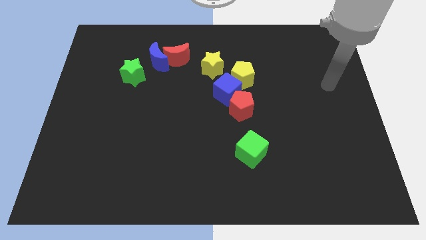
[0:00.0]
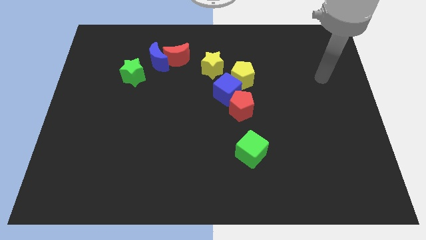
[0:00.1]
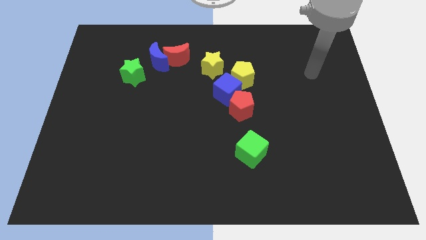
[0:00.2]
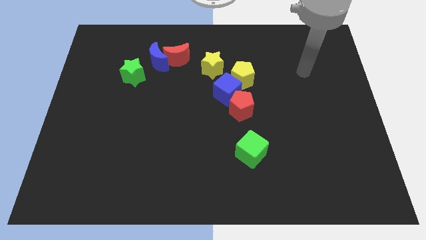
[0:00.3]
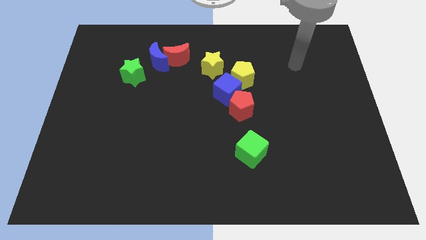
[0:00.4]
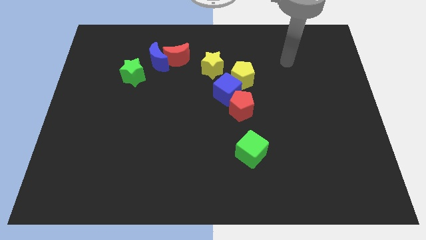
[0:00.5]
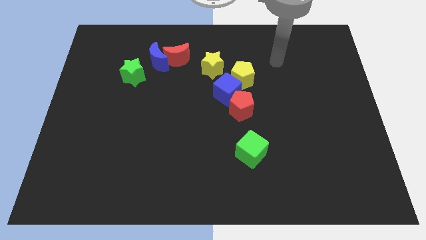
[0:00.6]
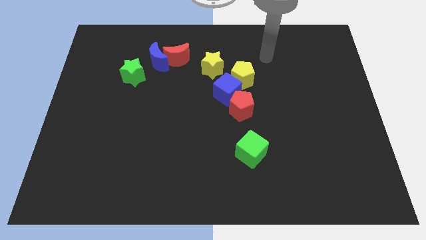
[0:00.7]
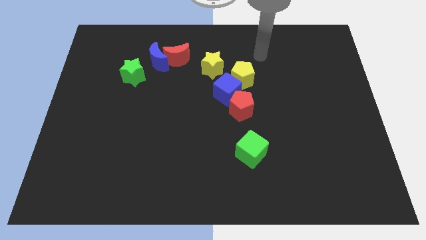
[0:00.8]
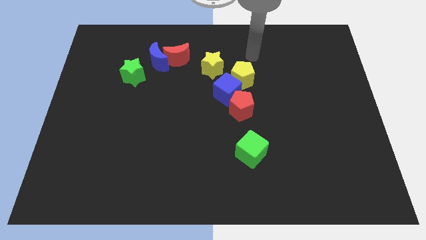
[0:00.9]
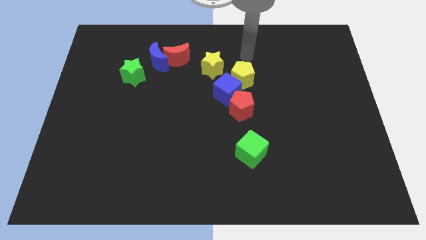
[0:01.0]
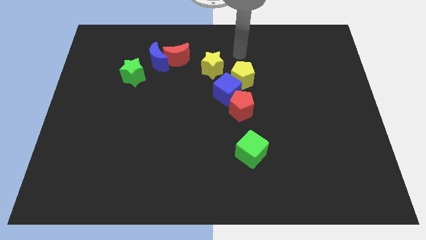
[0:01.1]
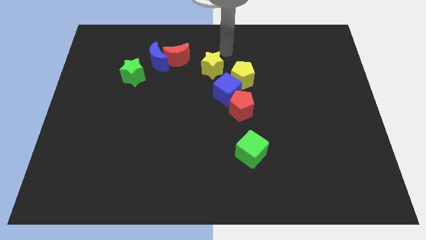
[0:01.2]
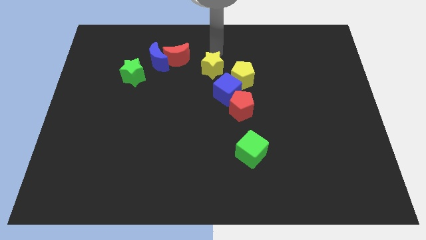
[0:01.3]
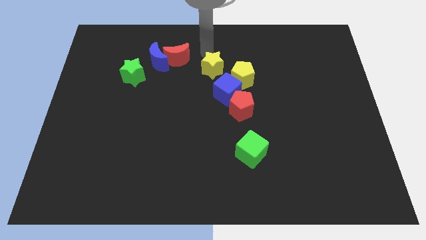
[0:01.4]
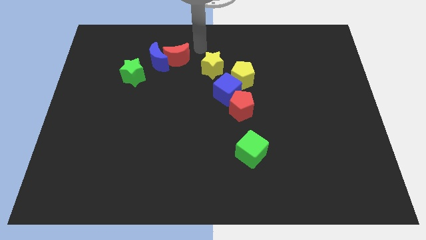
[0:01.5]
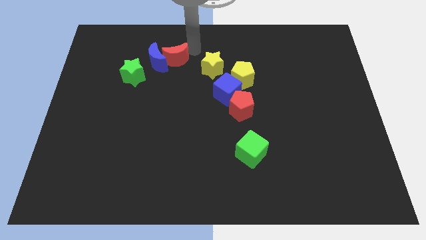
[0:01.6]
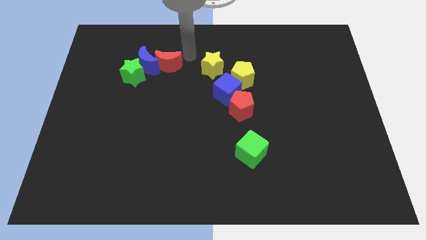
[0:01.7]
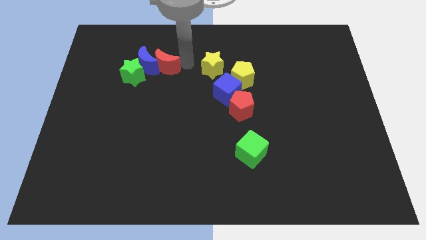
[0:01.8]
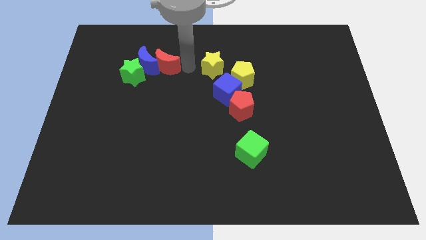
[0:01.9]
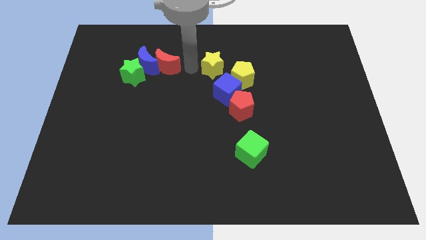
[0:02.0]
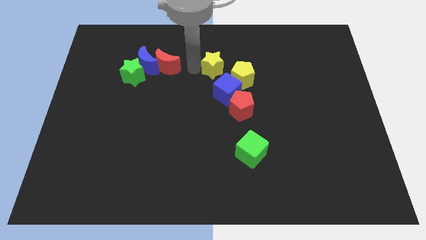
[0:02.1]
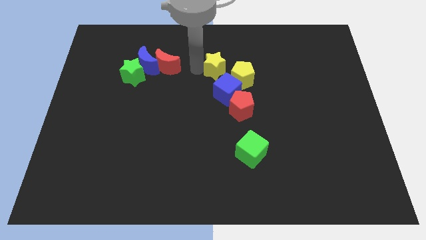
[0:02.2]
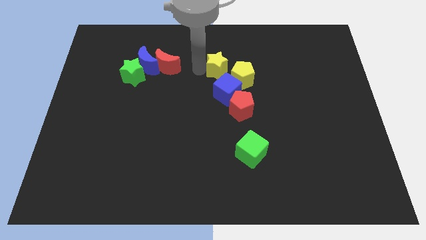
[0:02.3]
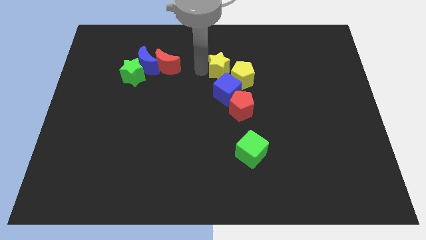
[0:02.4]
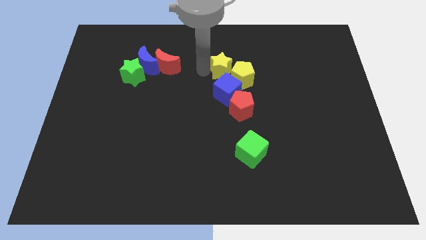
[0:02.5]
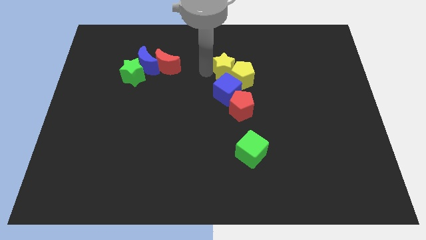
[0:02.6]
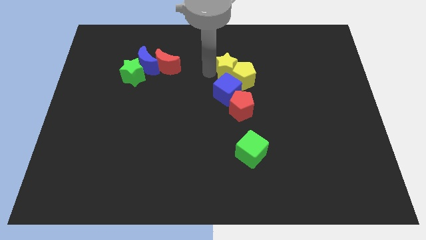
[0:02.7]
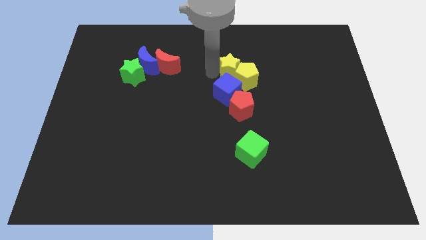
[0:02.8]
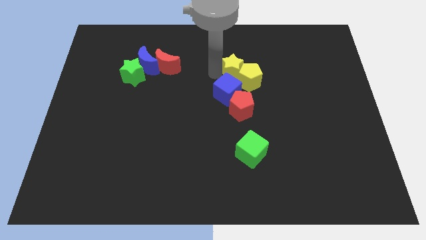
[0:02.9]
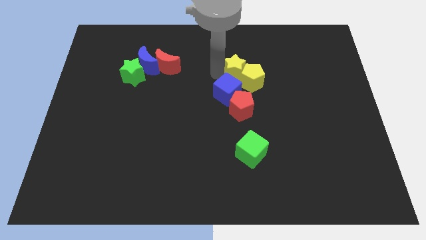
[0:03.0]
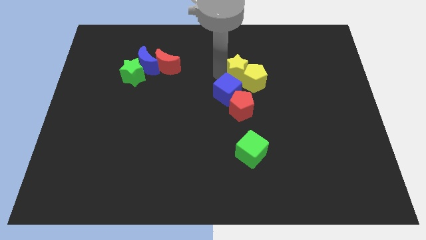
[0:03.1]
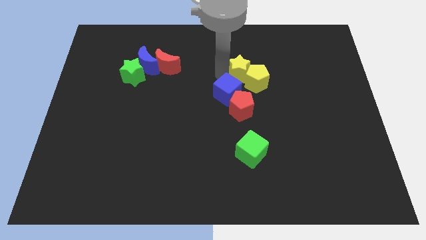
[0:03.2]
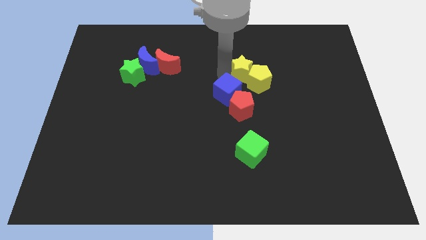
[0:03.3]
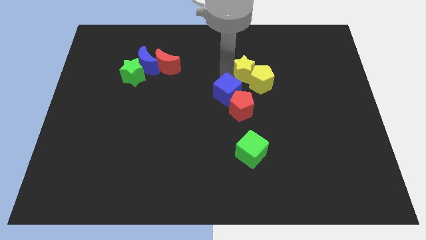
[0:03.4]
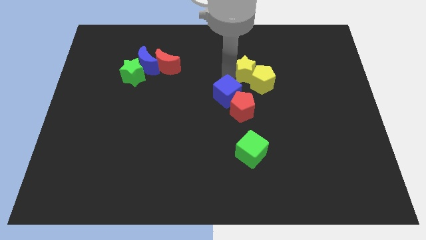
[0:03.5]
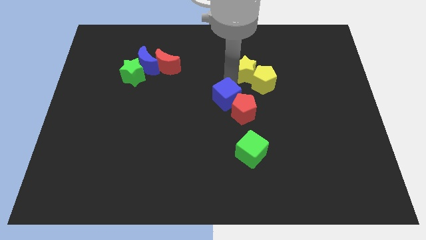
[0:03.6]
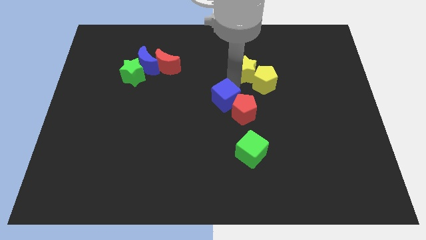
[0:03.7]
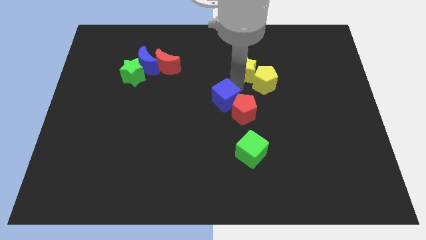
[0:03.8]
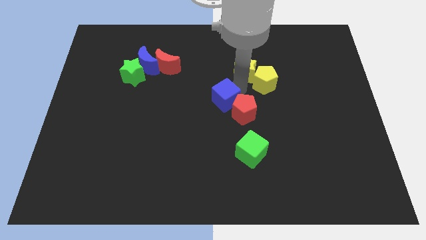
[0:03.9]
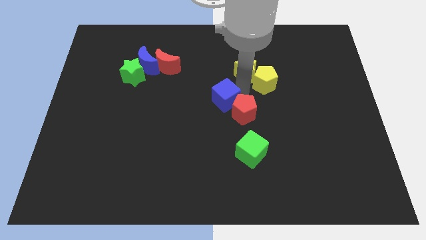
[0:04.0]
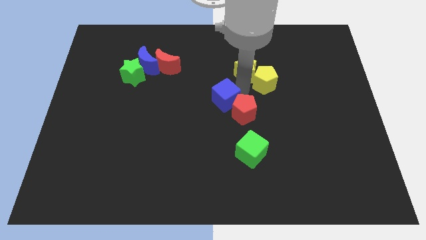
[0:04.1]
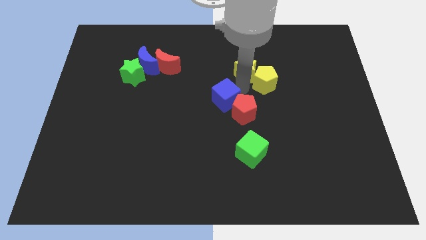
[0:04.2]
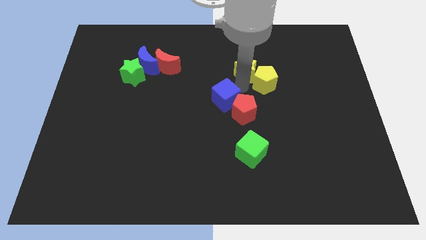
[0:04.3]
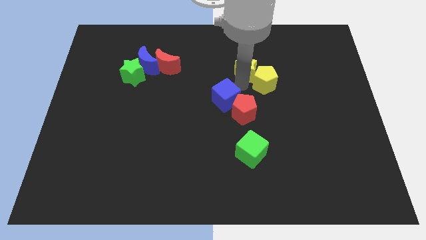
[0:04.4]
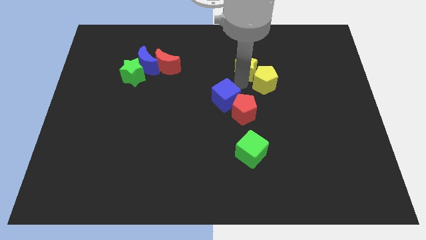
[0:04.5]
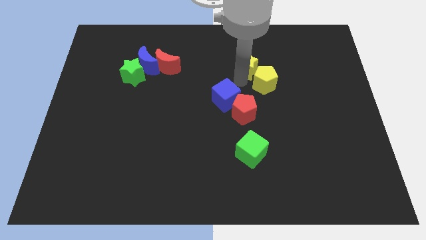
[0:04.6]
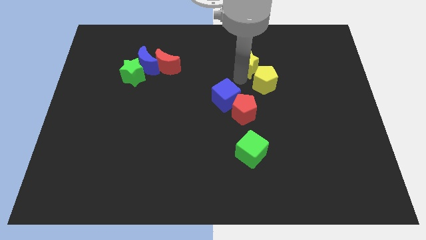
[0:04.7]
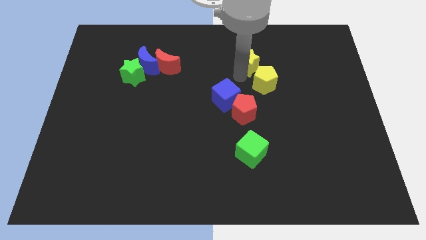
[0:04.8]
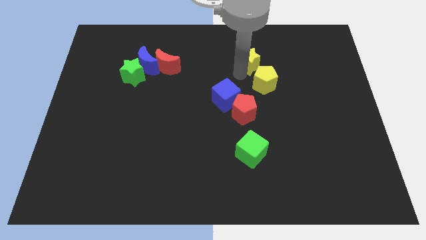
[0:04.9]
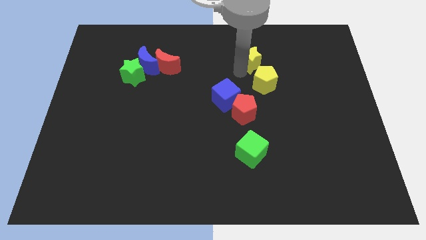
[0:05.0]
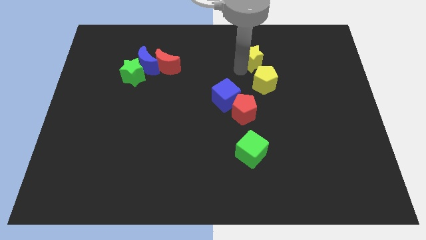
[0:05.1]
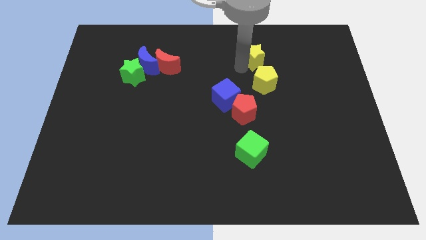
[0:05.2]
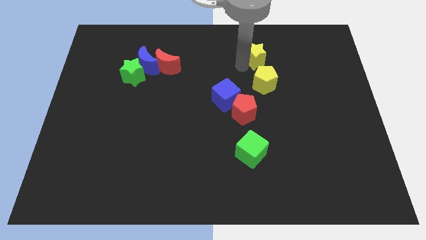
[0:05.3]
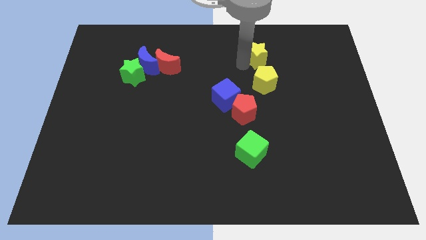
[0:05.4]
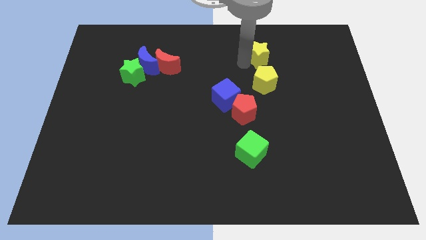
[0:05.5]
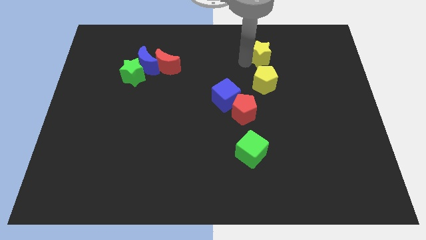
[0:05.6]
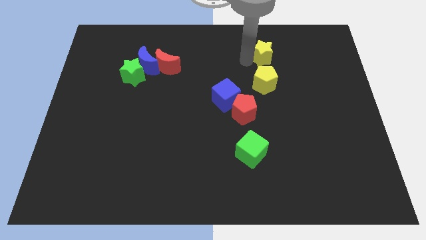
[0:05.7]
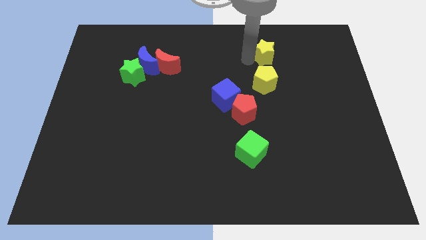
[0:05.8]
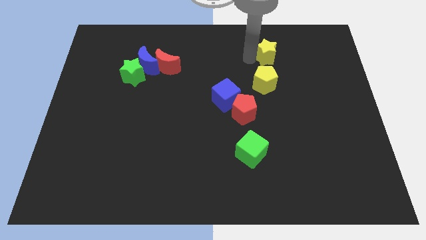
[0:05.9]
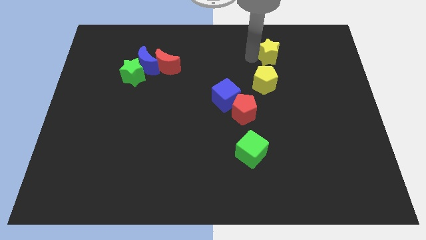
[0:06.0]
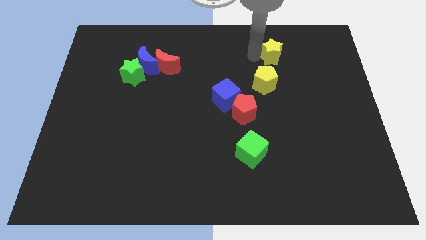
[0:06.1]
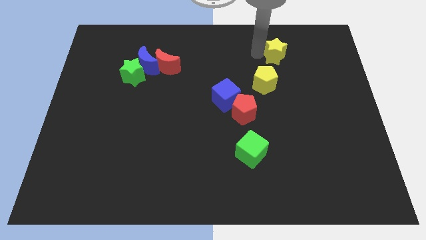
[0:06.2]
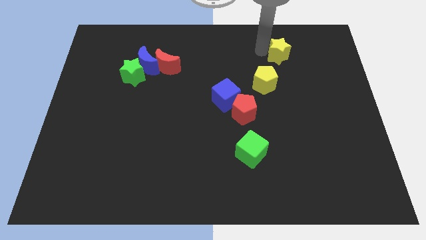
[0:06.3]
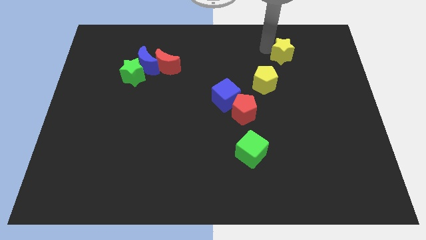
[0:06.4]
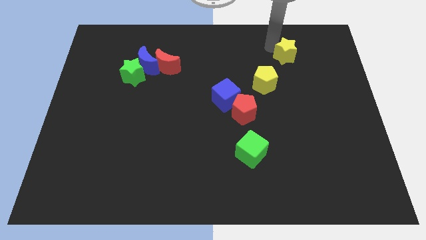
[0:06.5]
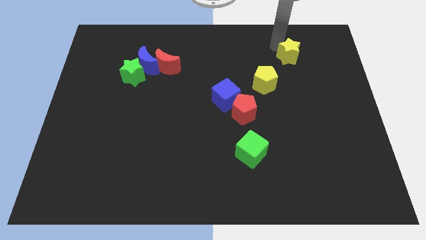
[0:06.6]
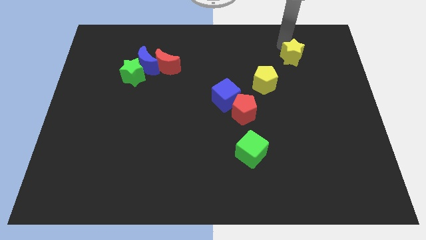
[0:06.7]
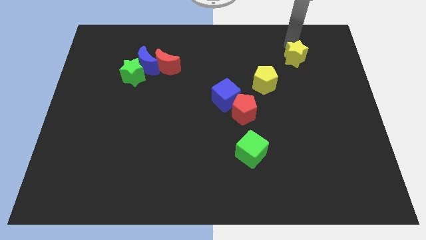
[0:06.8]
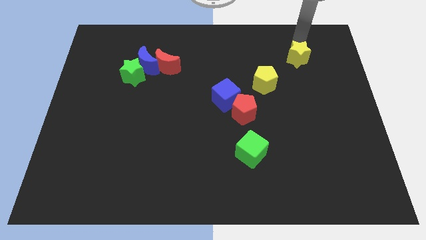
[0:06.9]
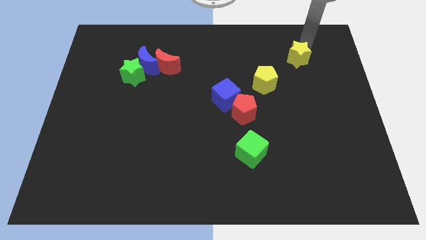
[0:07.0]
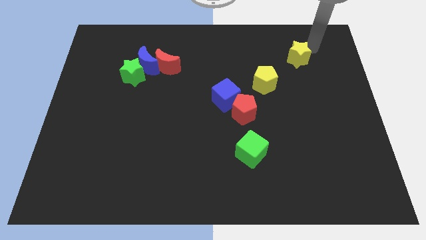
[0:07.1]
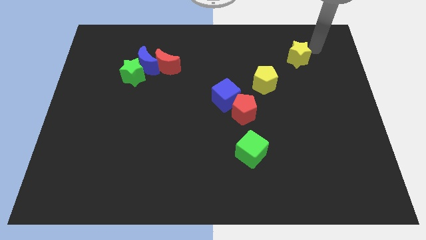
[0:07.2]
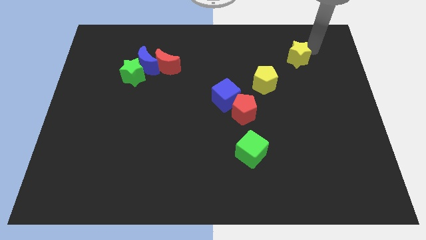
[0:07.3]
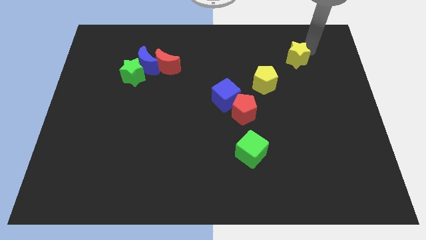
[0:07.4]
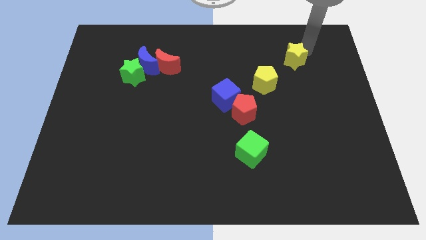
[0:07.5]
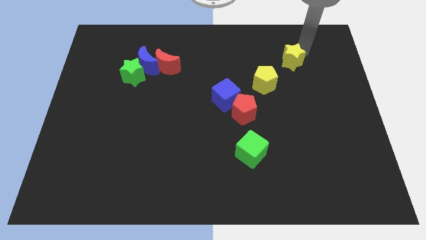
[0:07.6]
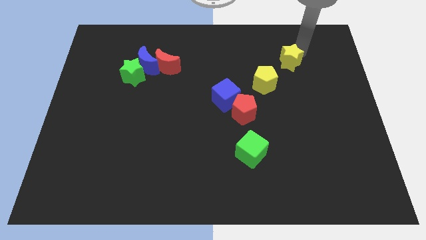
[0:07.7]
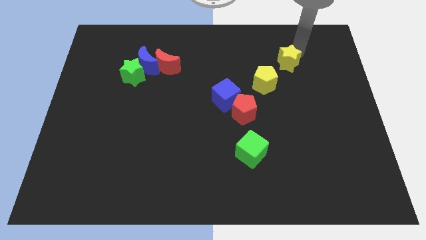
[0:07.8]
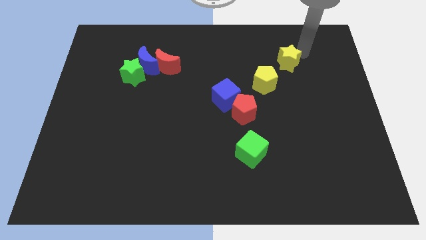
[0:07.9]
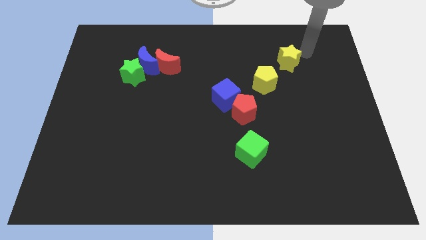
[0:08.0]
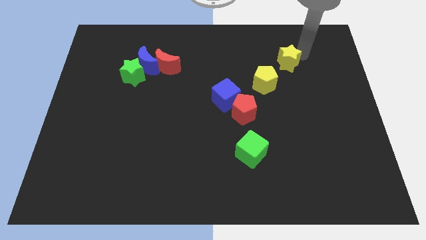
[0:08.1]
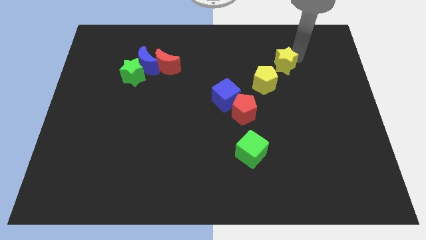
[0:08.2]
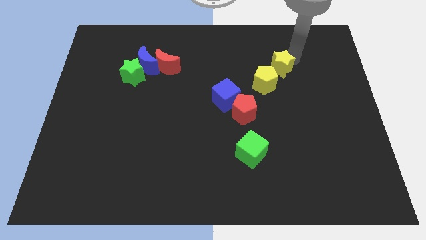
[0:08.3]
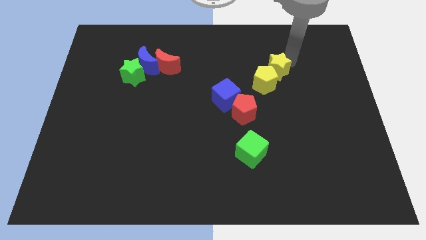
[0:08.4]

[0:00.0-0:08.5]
push the yellow star just right of the yellow pentagon
